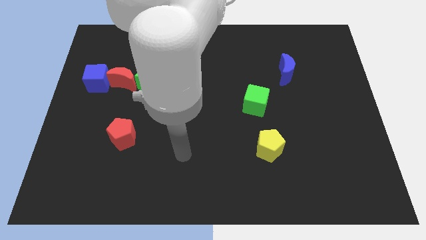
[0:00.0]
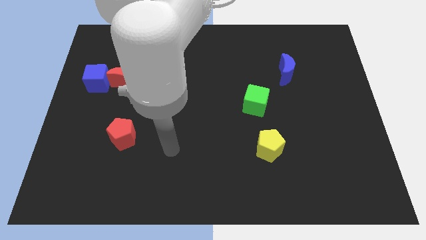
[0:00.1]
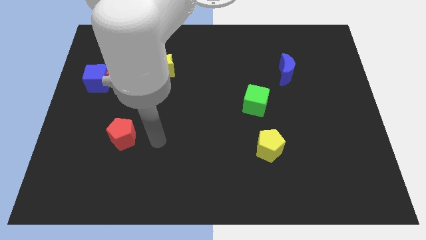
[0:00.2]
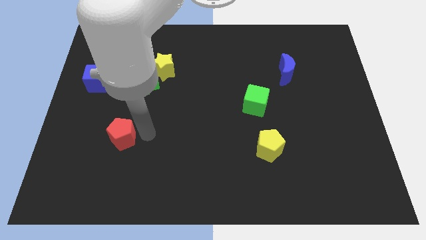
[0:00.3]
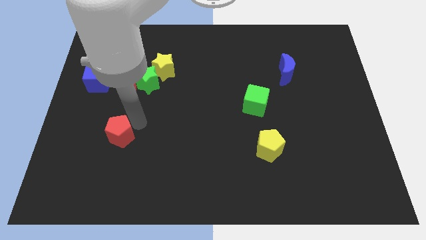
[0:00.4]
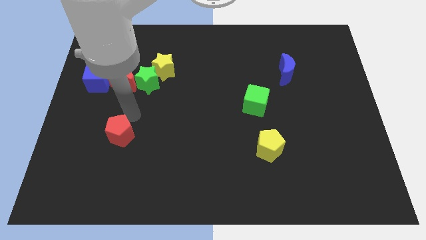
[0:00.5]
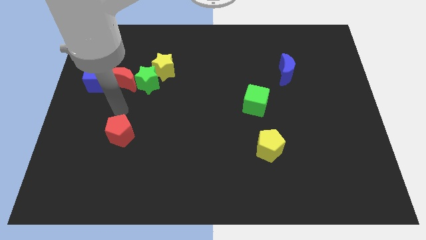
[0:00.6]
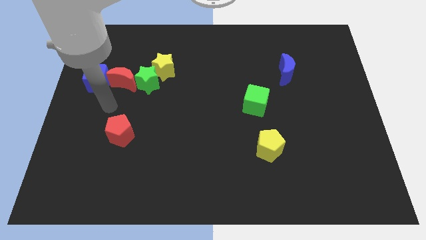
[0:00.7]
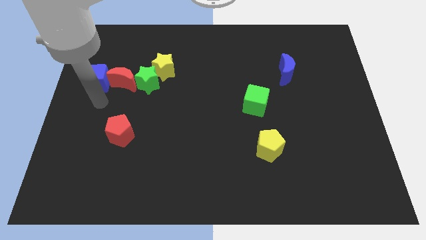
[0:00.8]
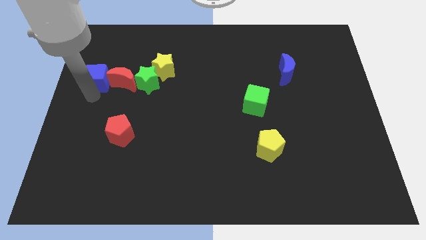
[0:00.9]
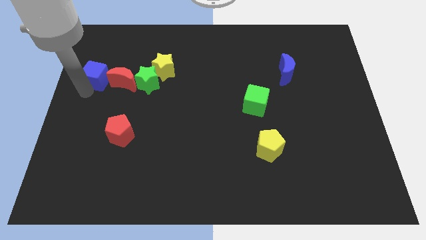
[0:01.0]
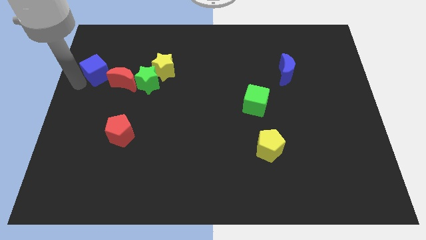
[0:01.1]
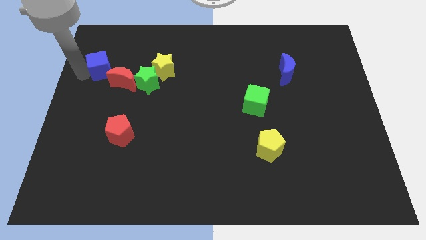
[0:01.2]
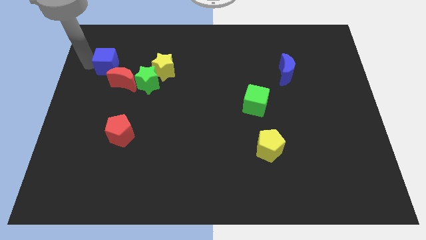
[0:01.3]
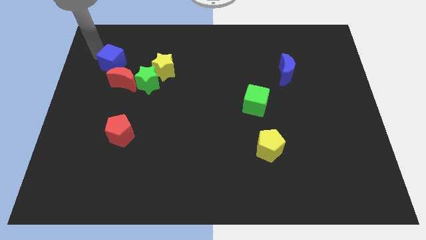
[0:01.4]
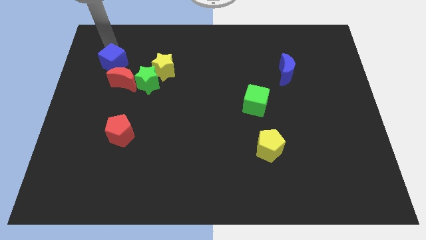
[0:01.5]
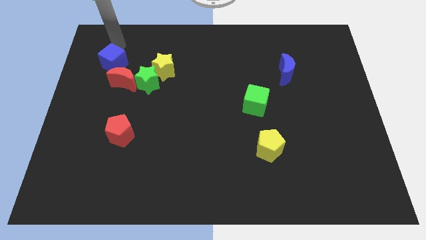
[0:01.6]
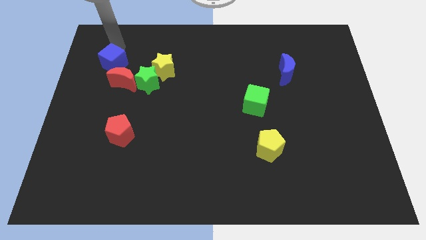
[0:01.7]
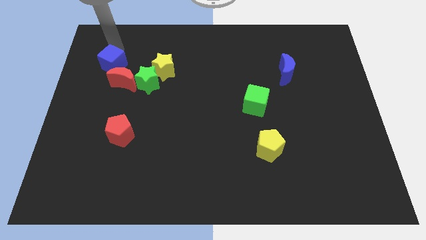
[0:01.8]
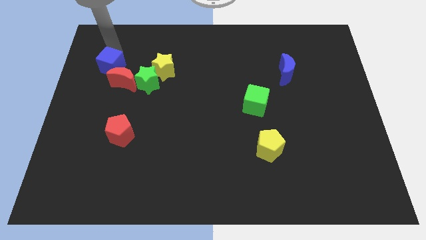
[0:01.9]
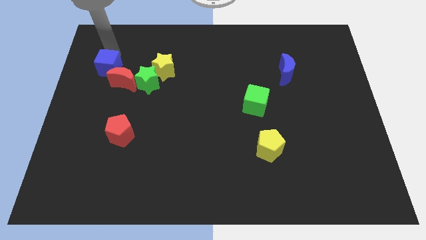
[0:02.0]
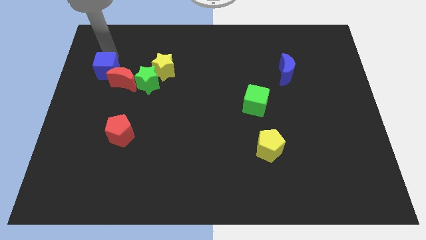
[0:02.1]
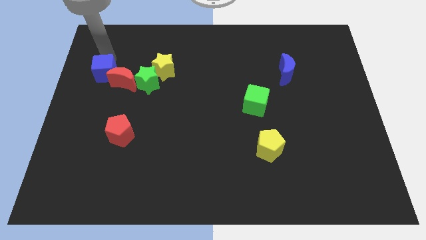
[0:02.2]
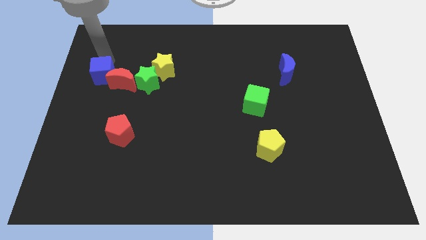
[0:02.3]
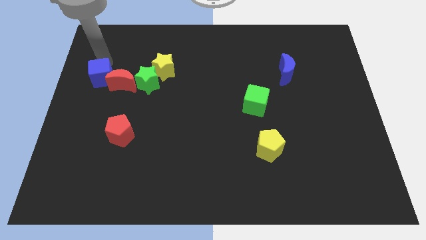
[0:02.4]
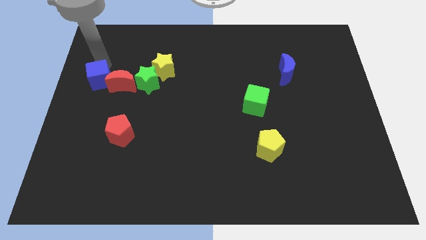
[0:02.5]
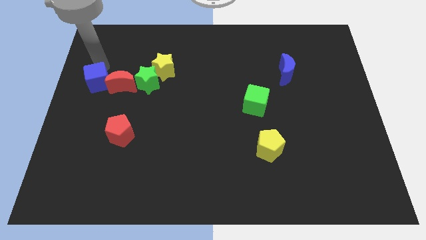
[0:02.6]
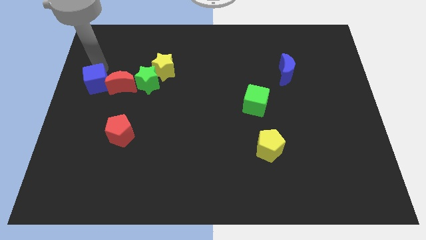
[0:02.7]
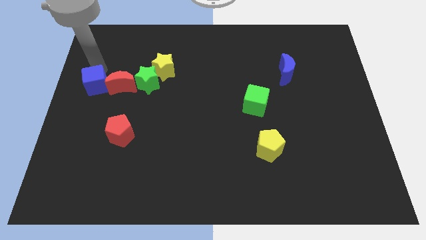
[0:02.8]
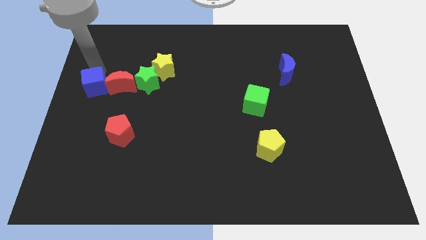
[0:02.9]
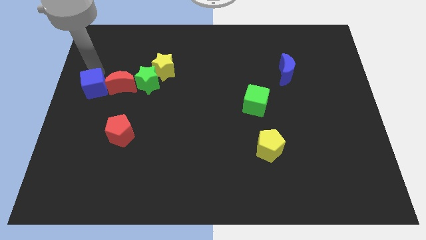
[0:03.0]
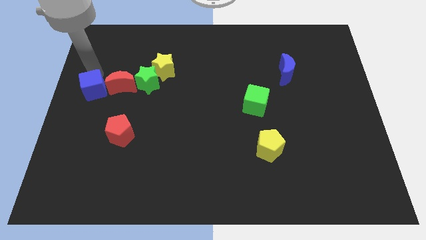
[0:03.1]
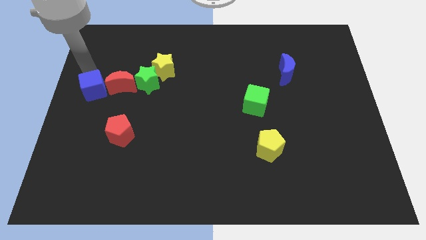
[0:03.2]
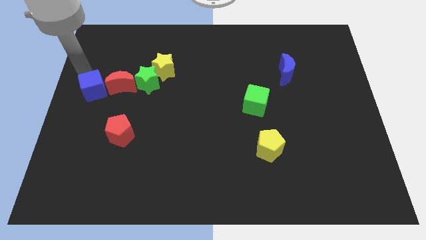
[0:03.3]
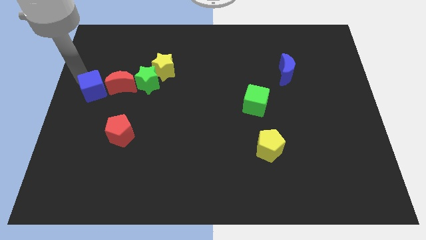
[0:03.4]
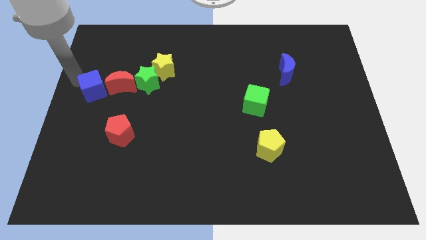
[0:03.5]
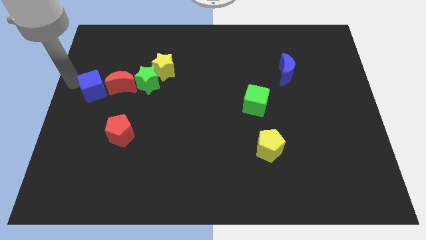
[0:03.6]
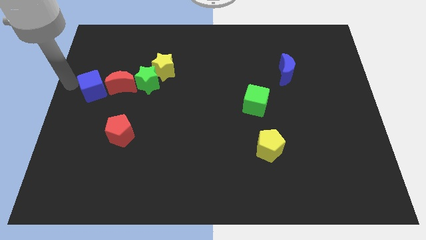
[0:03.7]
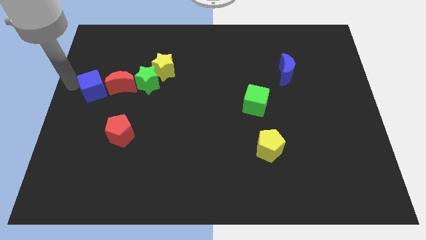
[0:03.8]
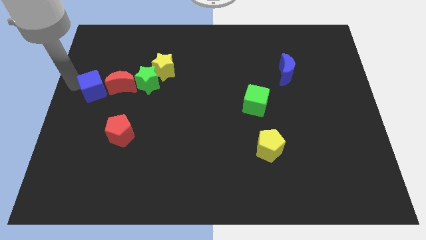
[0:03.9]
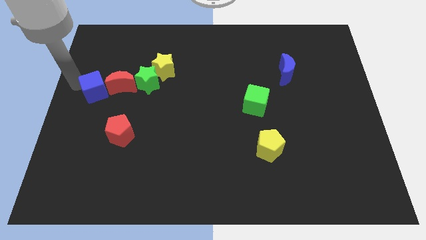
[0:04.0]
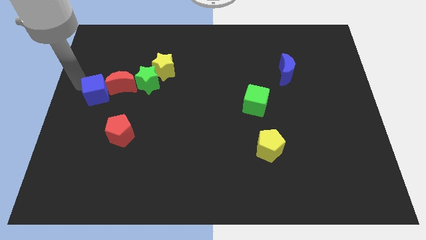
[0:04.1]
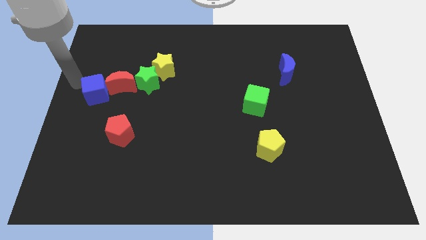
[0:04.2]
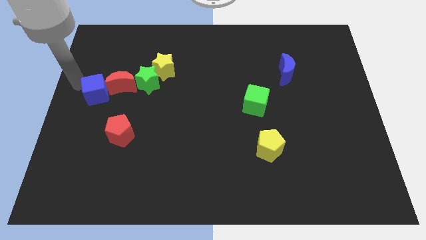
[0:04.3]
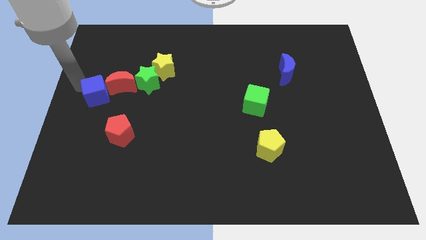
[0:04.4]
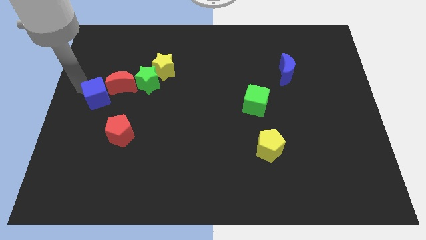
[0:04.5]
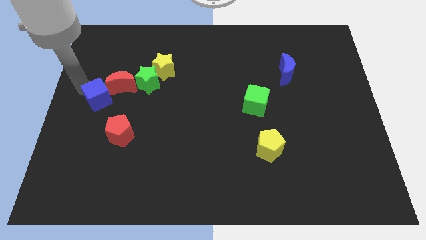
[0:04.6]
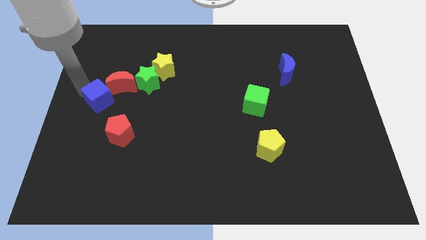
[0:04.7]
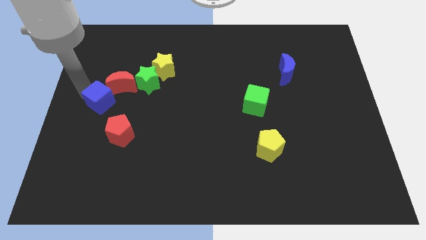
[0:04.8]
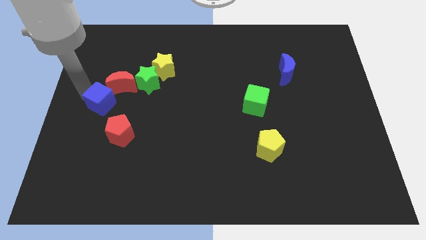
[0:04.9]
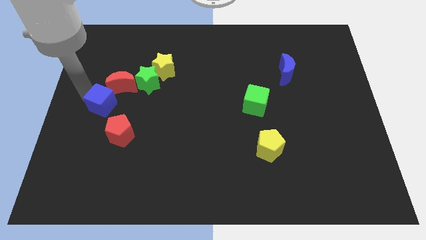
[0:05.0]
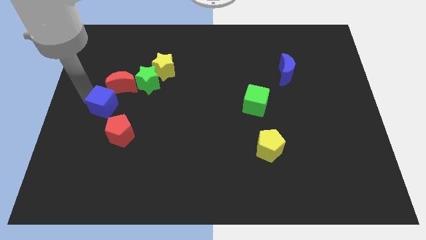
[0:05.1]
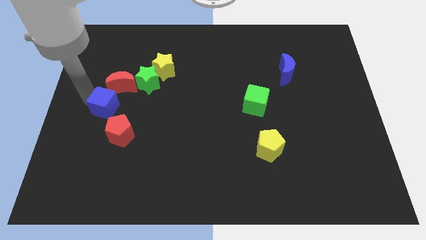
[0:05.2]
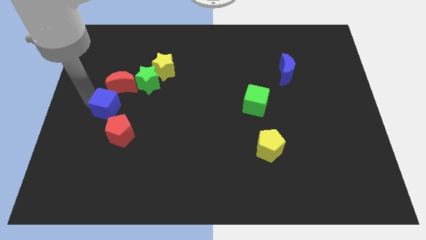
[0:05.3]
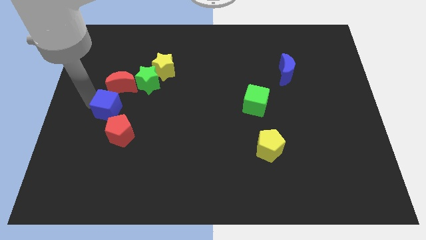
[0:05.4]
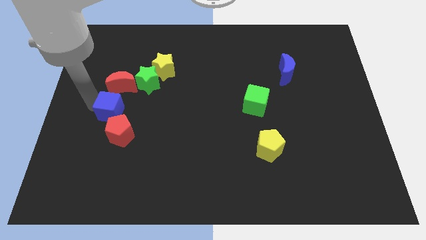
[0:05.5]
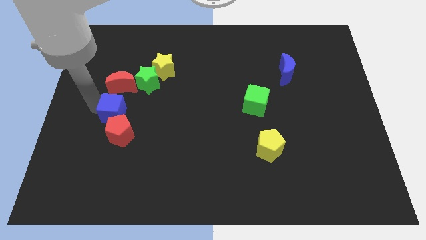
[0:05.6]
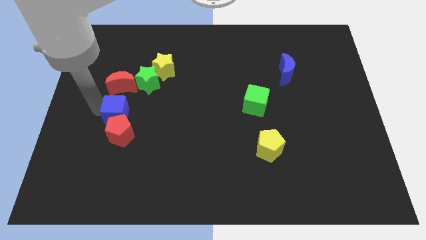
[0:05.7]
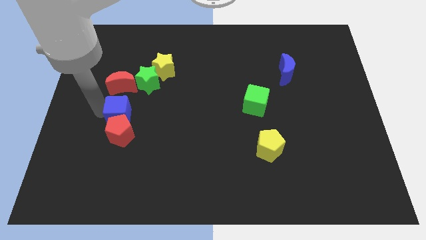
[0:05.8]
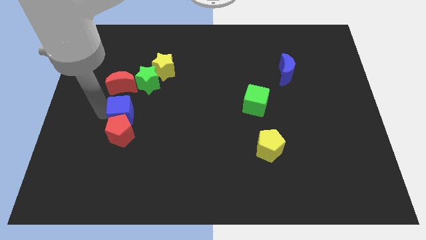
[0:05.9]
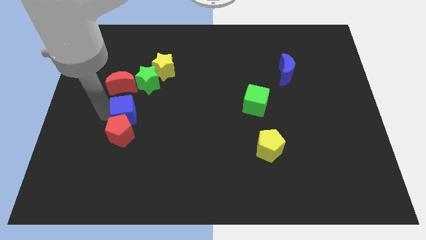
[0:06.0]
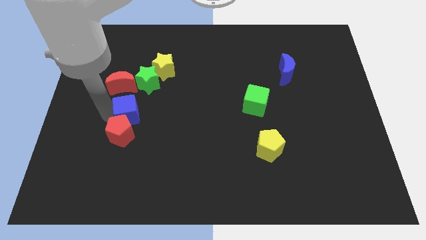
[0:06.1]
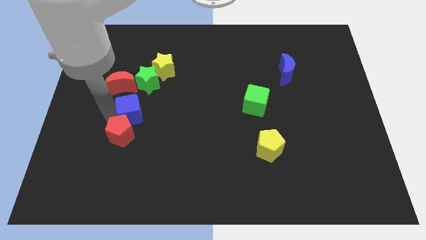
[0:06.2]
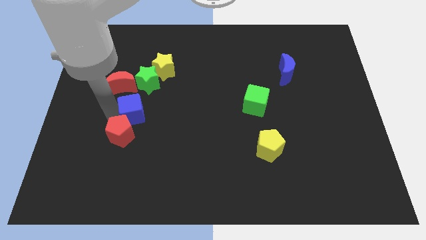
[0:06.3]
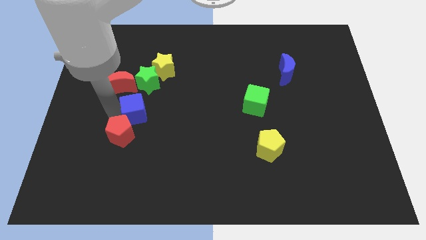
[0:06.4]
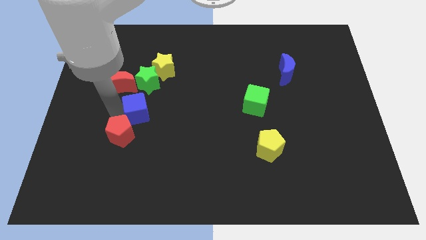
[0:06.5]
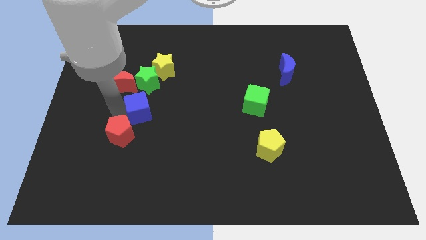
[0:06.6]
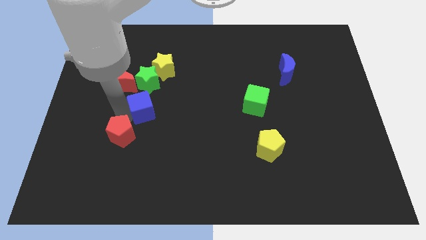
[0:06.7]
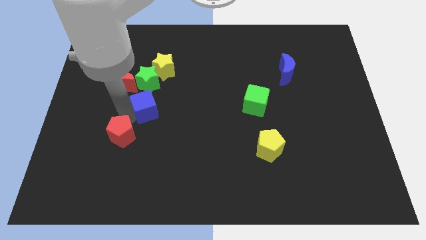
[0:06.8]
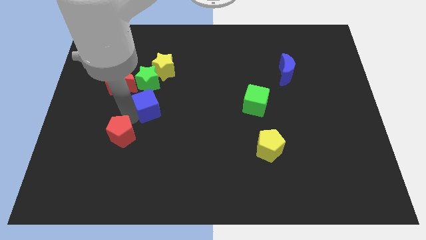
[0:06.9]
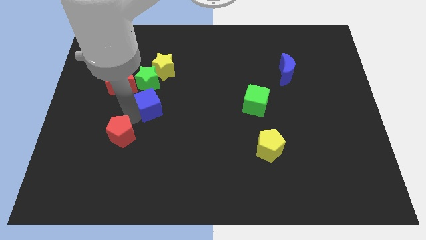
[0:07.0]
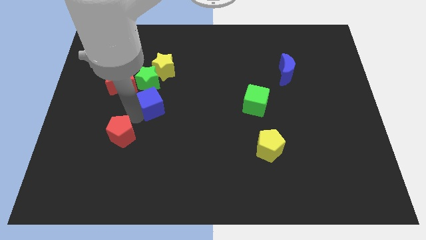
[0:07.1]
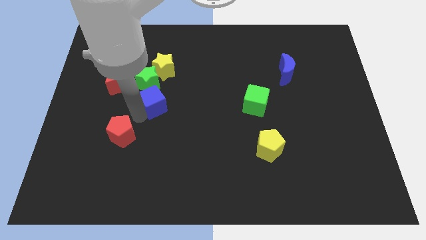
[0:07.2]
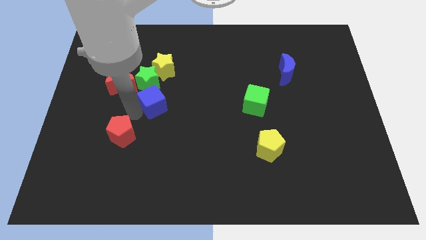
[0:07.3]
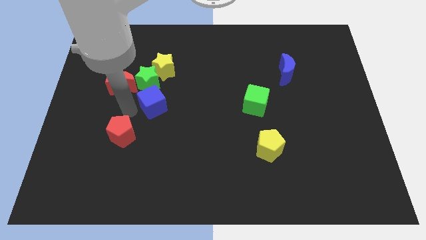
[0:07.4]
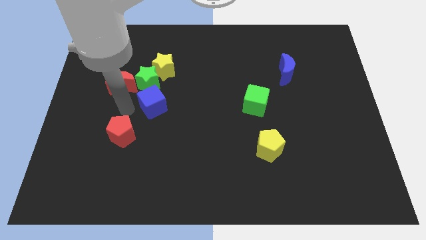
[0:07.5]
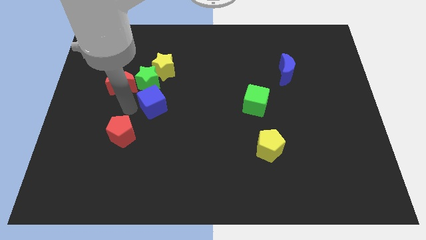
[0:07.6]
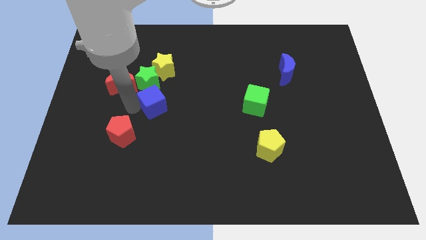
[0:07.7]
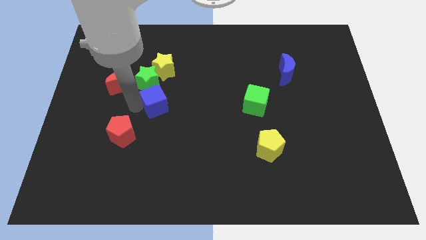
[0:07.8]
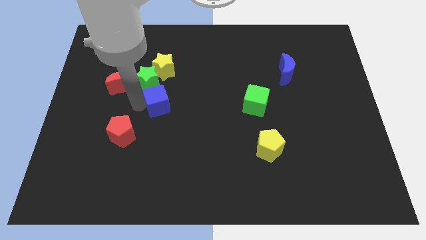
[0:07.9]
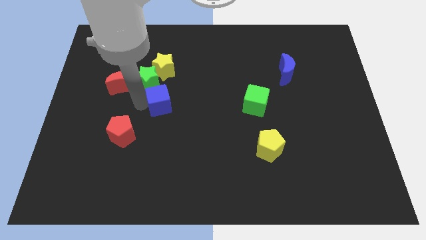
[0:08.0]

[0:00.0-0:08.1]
push the blue cube to the middle
